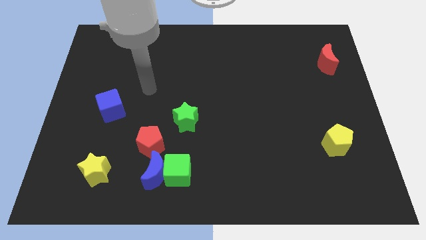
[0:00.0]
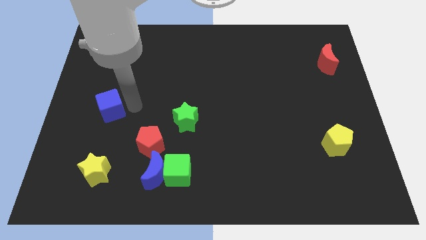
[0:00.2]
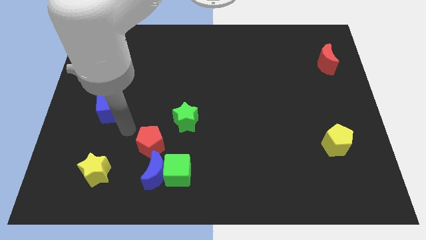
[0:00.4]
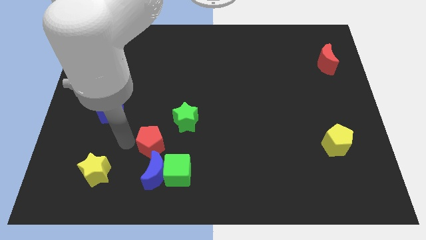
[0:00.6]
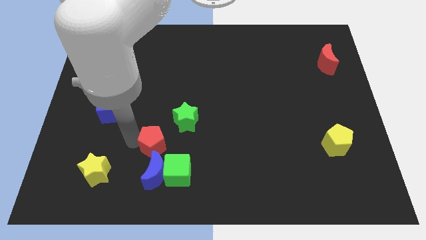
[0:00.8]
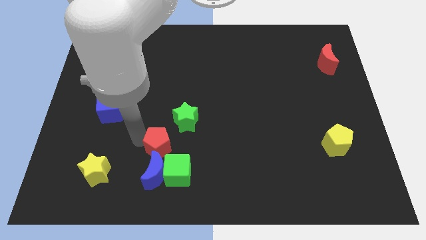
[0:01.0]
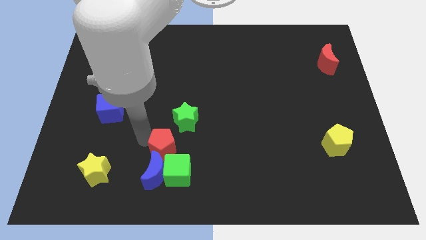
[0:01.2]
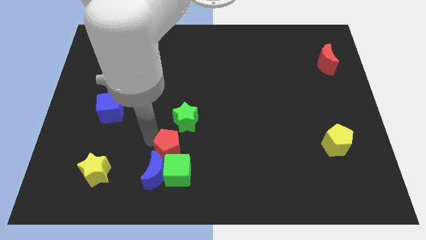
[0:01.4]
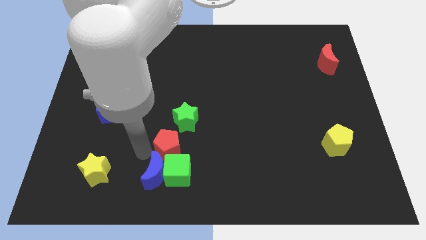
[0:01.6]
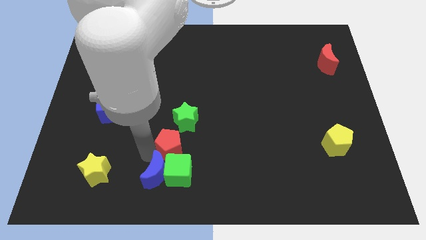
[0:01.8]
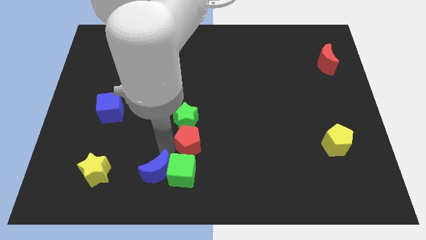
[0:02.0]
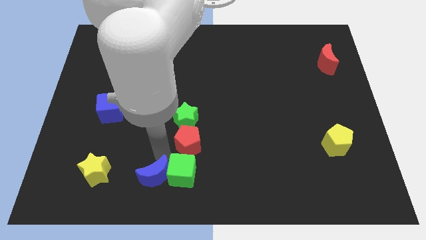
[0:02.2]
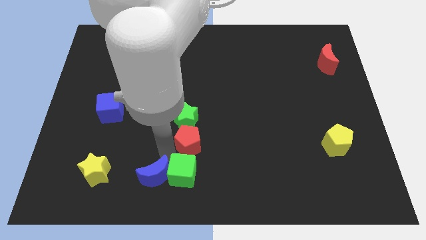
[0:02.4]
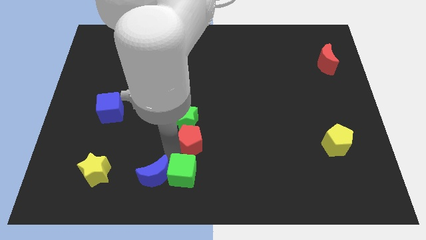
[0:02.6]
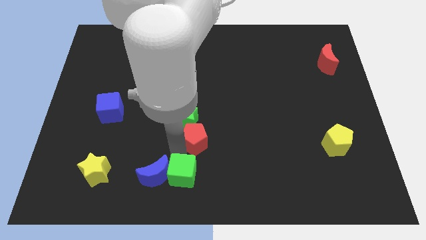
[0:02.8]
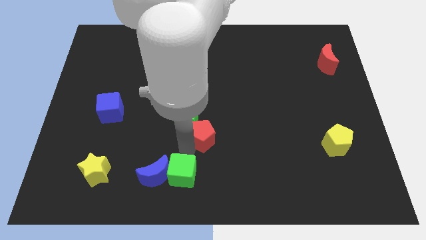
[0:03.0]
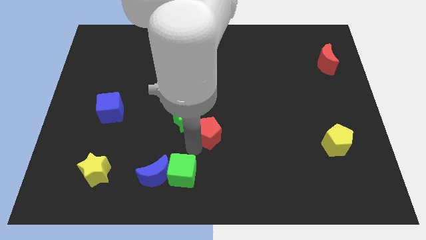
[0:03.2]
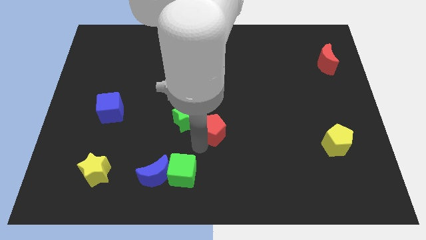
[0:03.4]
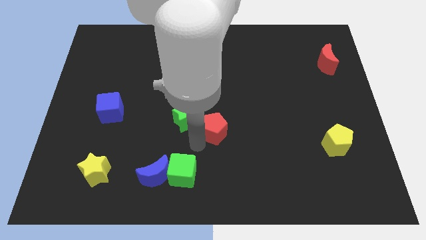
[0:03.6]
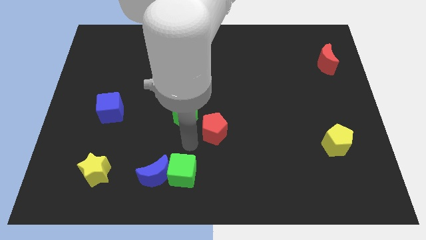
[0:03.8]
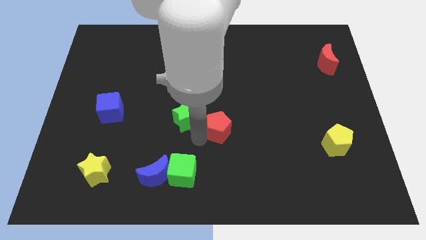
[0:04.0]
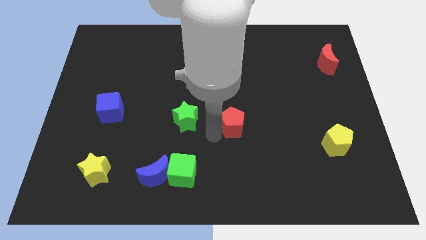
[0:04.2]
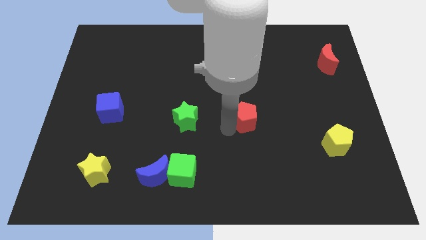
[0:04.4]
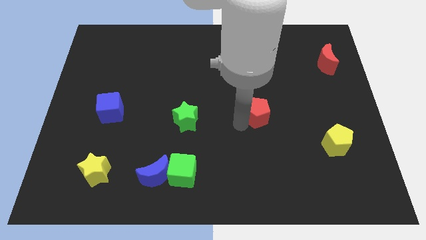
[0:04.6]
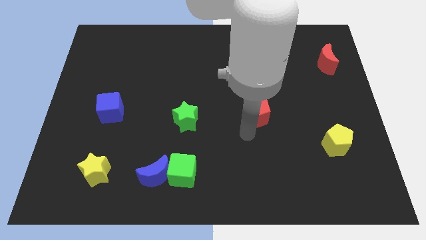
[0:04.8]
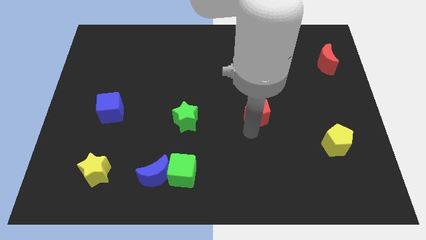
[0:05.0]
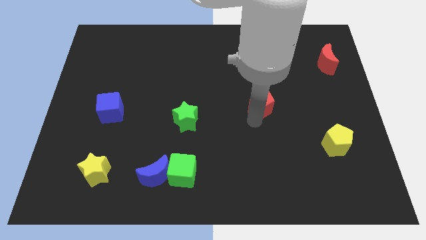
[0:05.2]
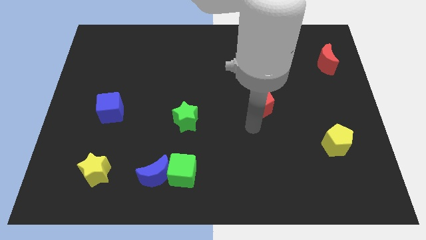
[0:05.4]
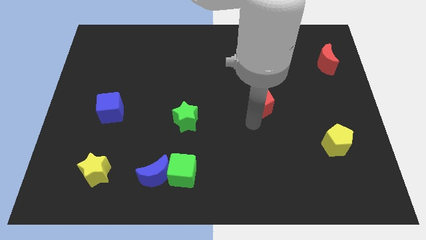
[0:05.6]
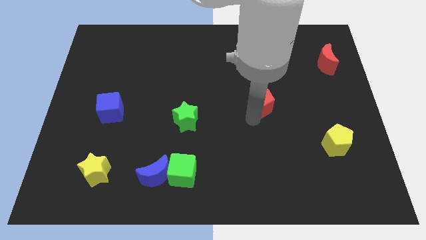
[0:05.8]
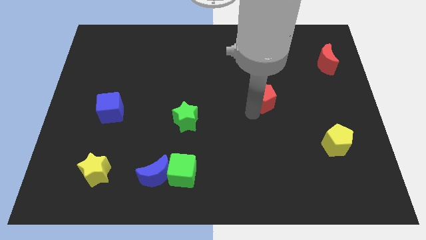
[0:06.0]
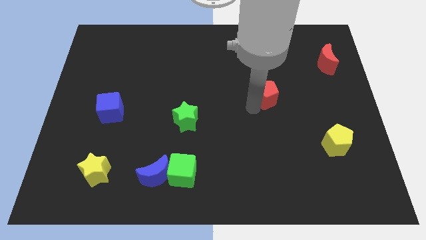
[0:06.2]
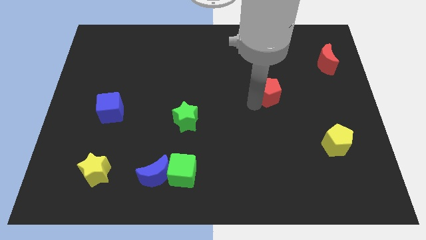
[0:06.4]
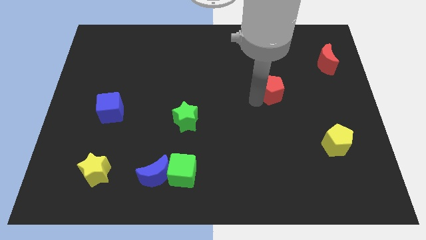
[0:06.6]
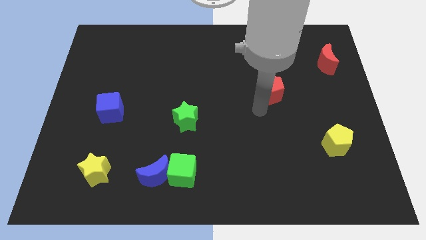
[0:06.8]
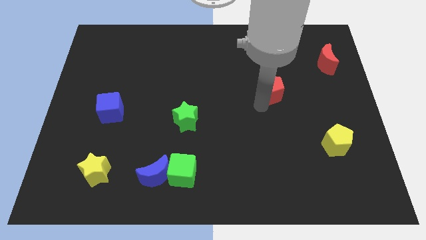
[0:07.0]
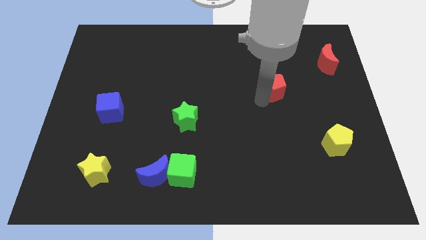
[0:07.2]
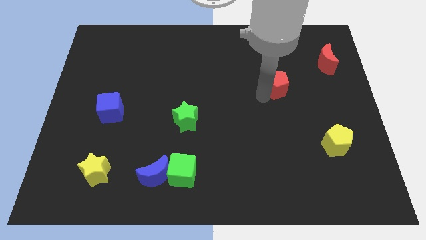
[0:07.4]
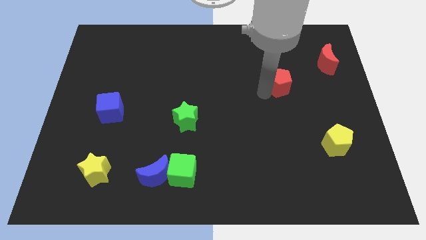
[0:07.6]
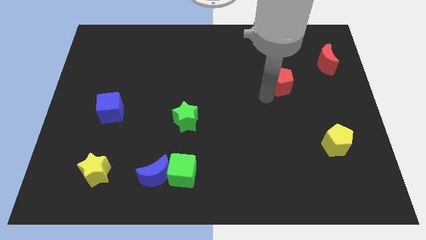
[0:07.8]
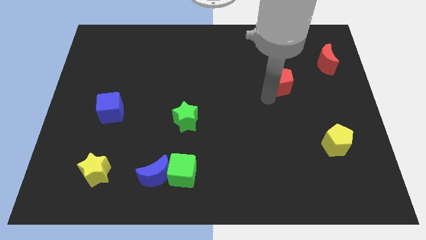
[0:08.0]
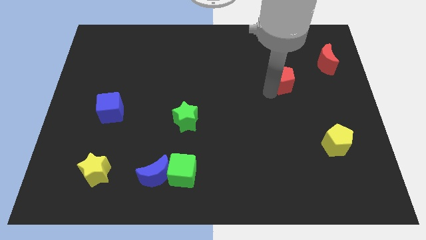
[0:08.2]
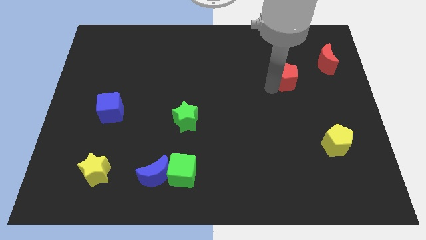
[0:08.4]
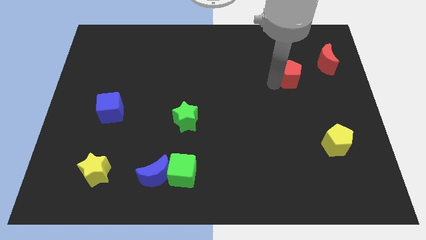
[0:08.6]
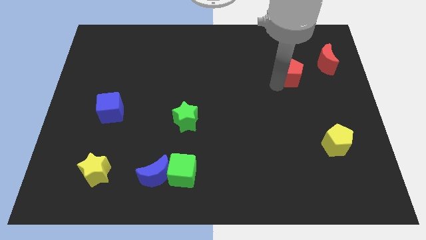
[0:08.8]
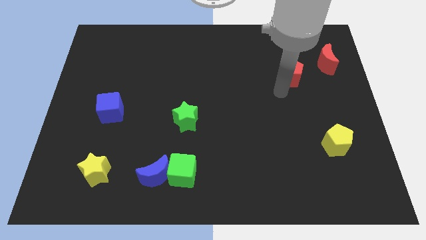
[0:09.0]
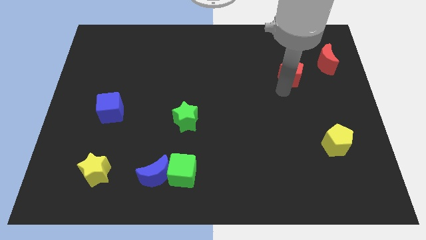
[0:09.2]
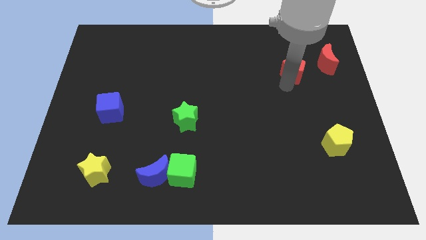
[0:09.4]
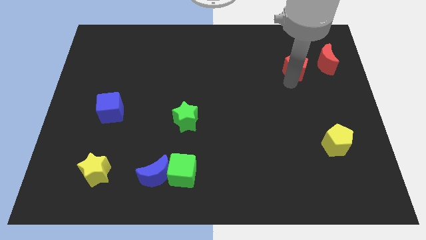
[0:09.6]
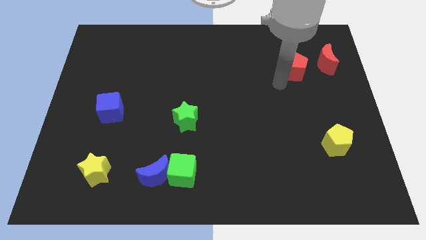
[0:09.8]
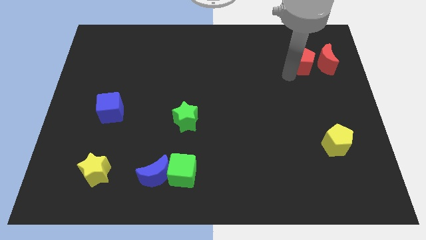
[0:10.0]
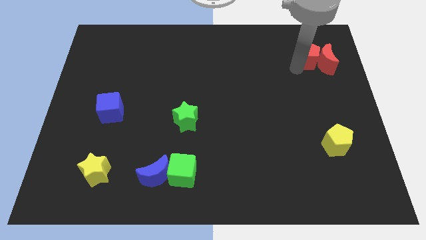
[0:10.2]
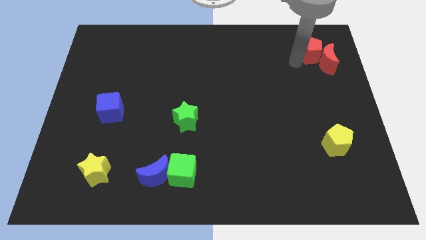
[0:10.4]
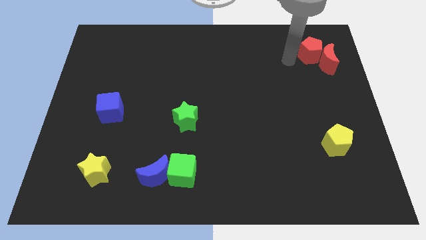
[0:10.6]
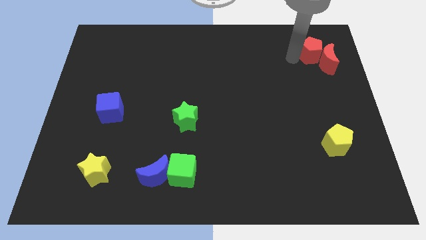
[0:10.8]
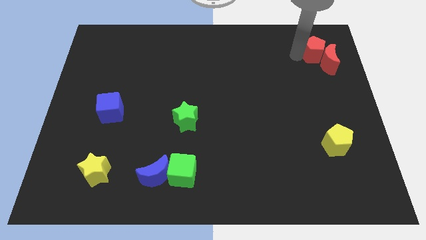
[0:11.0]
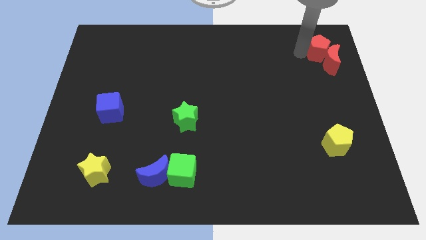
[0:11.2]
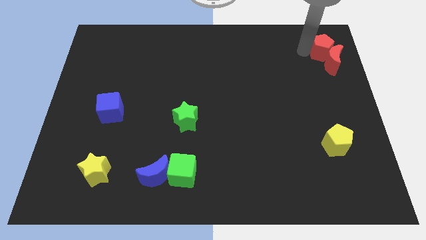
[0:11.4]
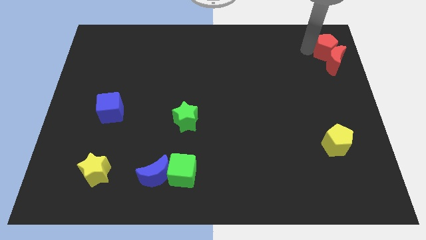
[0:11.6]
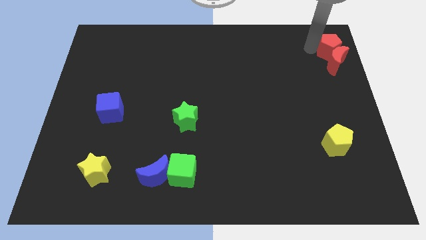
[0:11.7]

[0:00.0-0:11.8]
put the red pentagon to the upper right corner

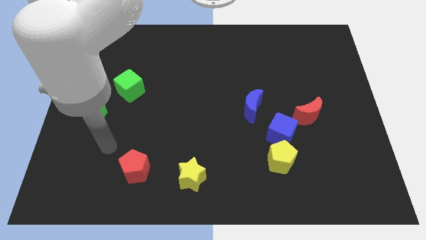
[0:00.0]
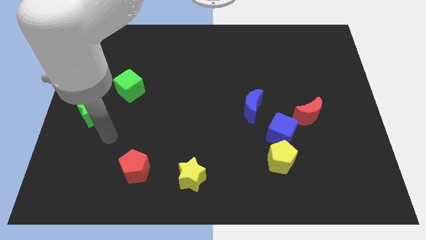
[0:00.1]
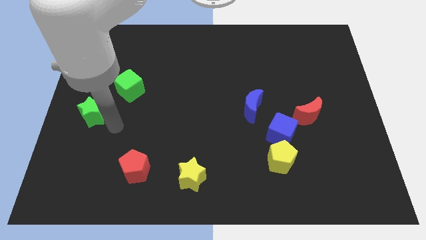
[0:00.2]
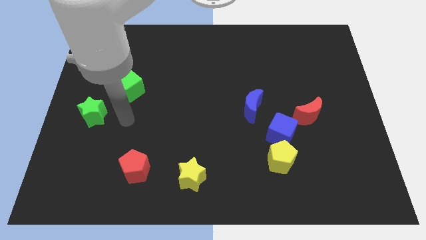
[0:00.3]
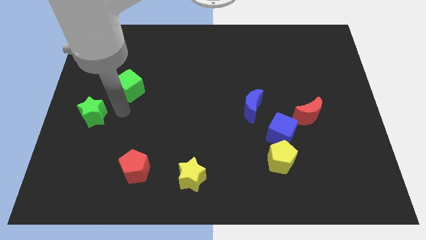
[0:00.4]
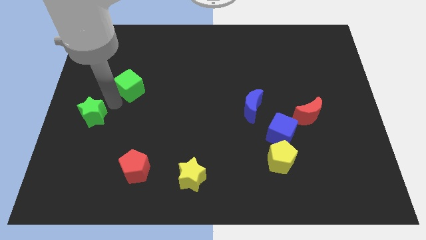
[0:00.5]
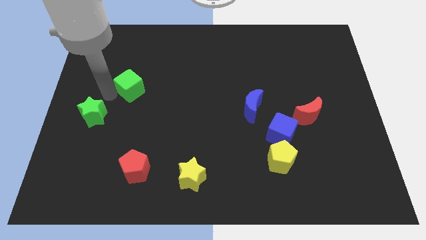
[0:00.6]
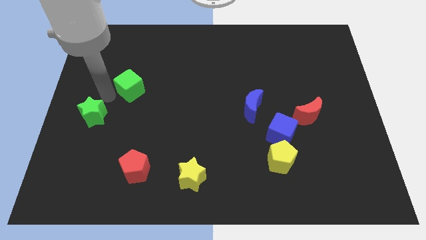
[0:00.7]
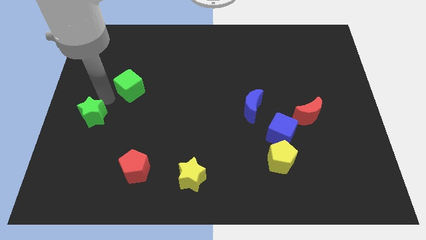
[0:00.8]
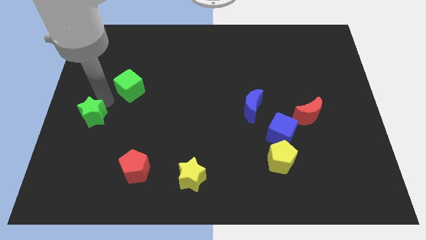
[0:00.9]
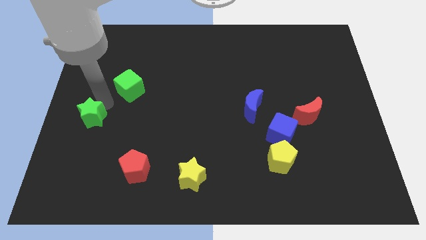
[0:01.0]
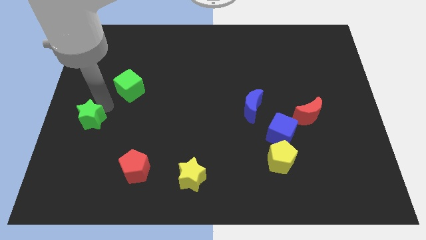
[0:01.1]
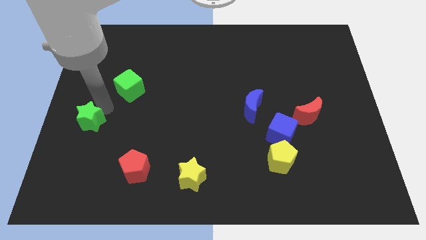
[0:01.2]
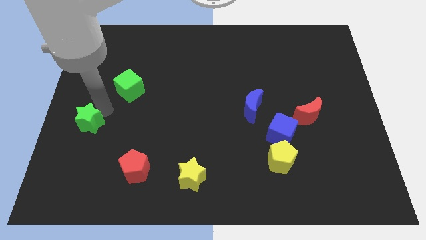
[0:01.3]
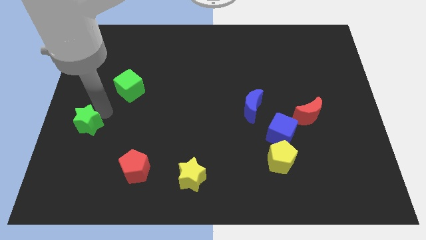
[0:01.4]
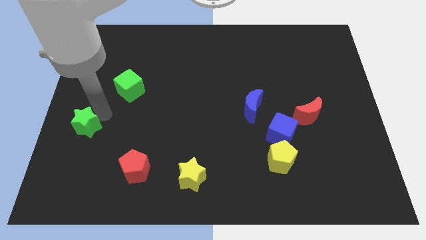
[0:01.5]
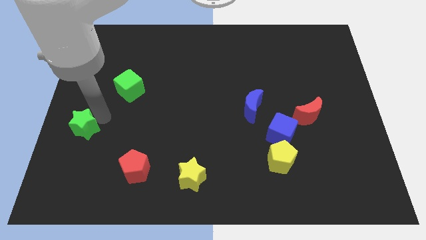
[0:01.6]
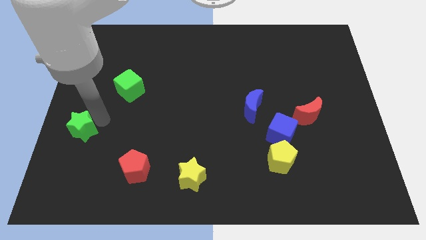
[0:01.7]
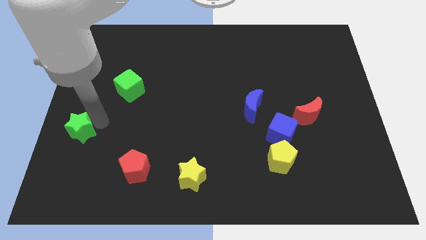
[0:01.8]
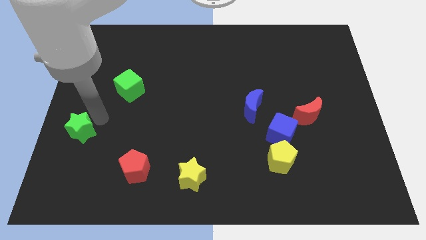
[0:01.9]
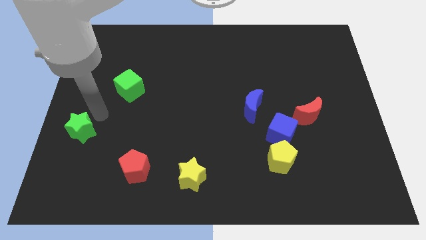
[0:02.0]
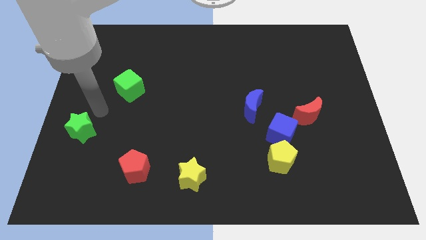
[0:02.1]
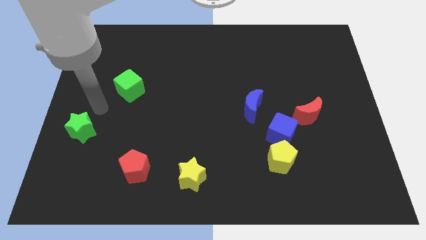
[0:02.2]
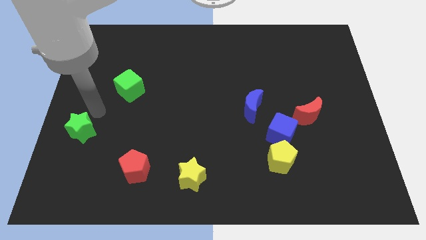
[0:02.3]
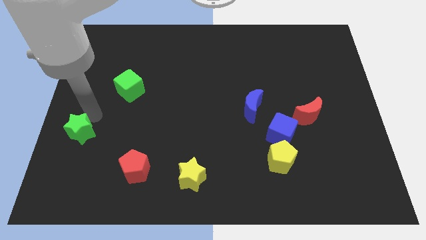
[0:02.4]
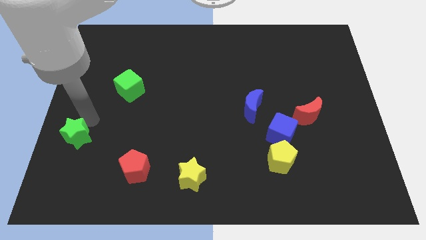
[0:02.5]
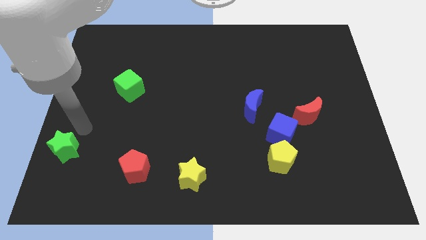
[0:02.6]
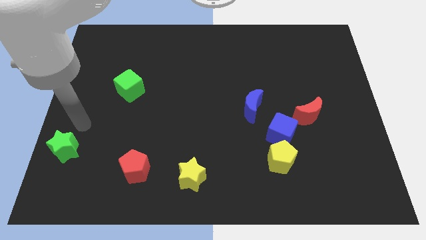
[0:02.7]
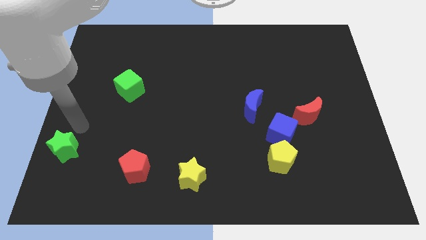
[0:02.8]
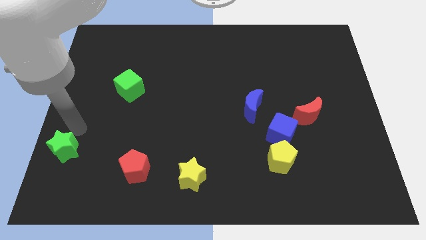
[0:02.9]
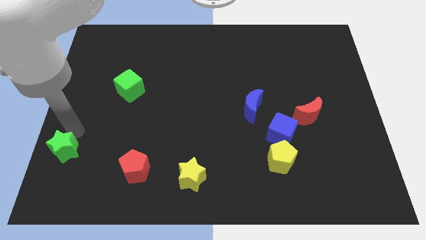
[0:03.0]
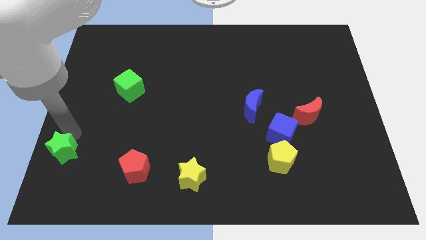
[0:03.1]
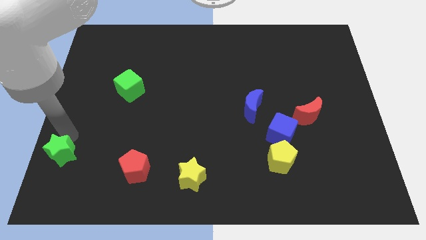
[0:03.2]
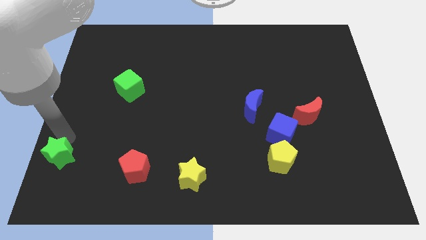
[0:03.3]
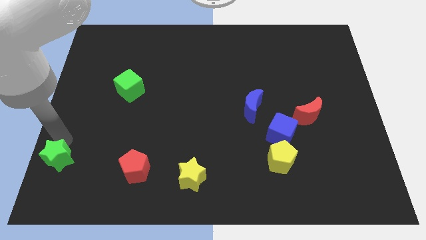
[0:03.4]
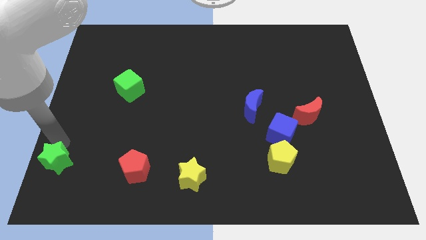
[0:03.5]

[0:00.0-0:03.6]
slide the green star to the bottom left corner
